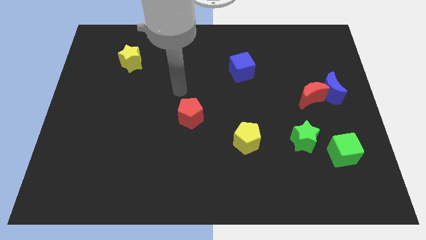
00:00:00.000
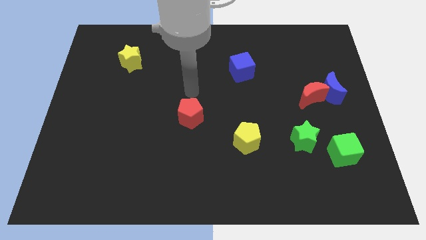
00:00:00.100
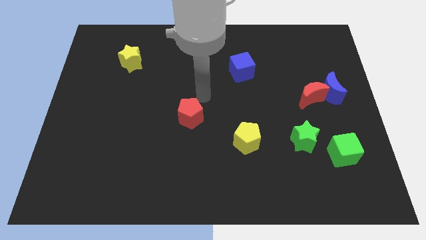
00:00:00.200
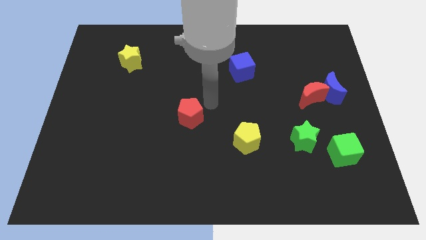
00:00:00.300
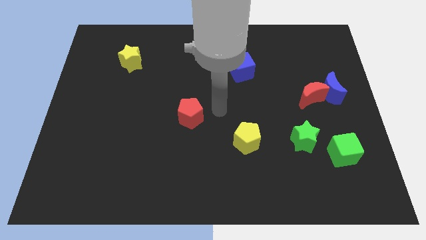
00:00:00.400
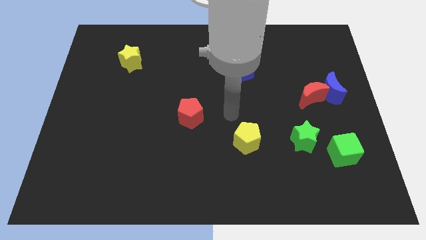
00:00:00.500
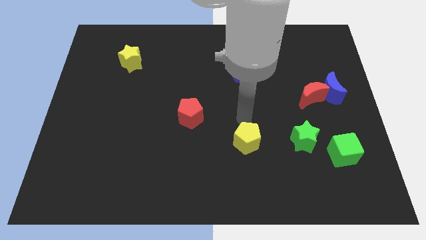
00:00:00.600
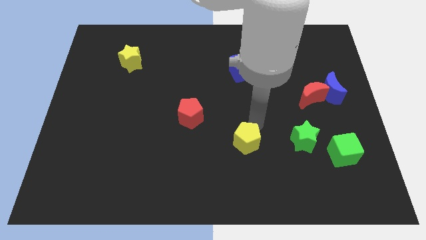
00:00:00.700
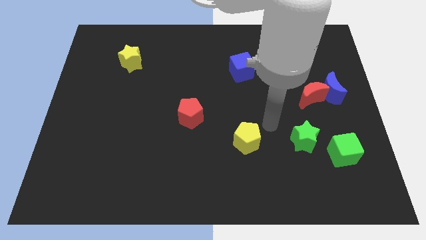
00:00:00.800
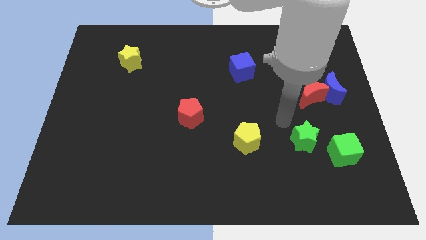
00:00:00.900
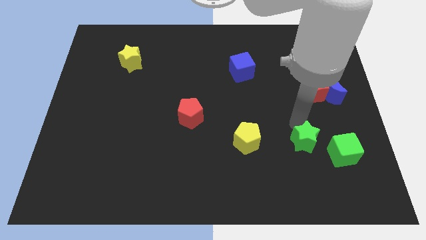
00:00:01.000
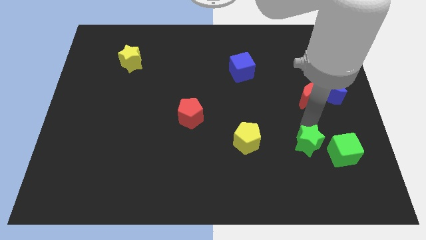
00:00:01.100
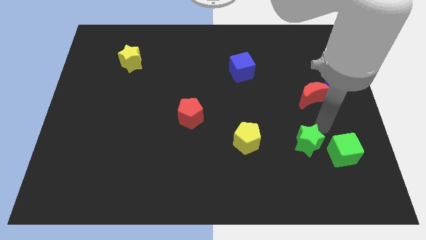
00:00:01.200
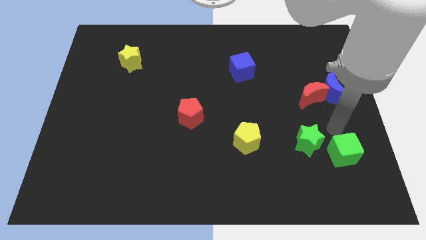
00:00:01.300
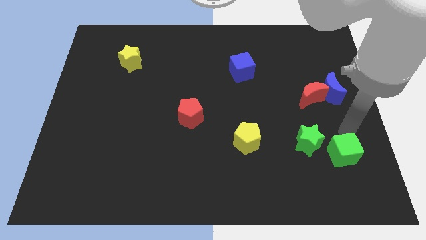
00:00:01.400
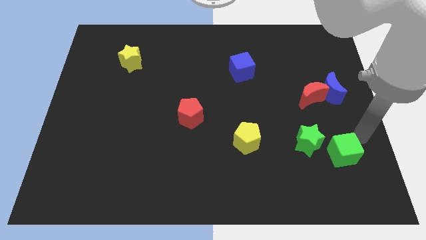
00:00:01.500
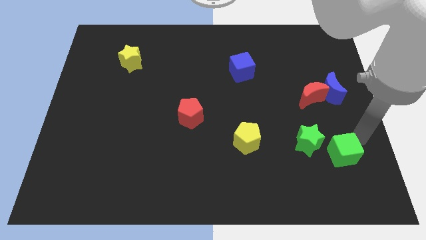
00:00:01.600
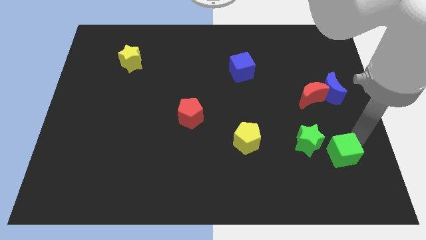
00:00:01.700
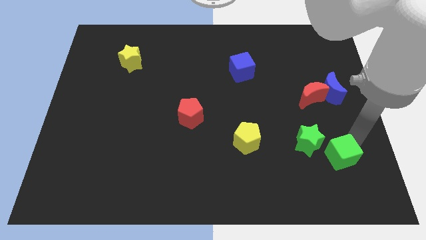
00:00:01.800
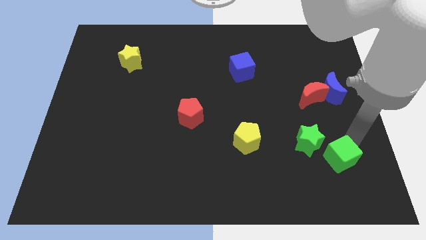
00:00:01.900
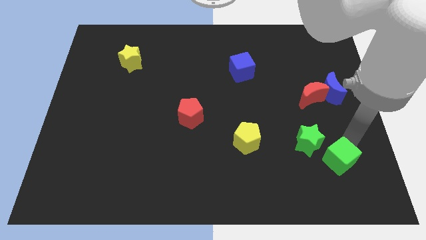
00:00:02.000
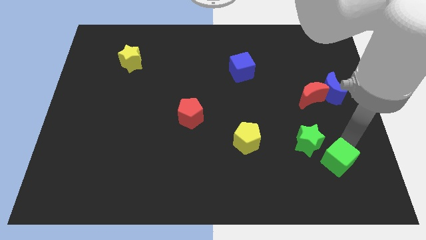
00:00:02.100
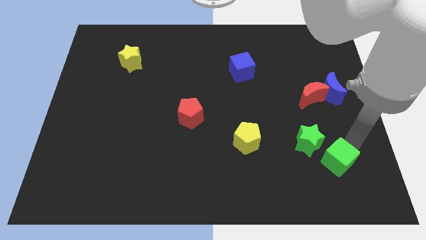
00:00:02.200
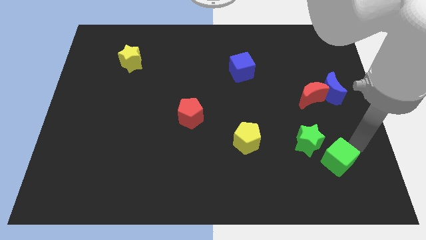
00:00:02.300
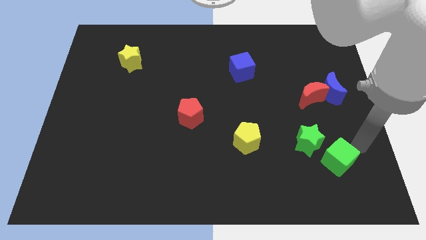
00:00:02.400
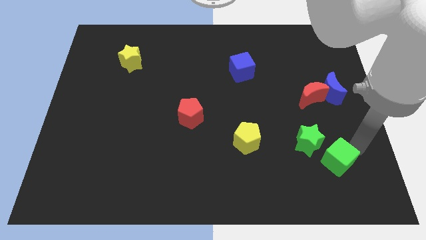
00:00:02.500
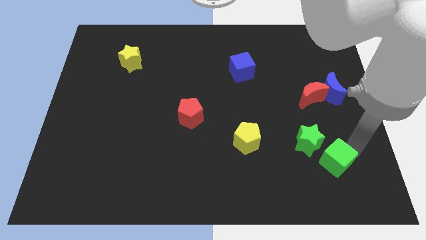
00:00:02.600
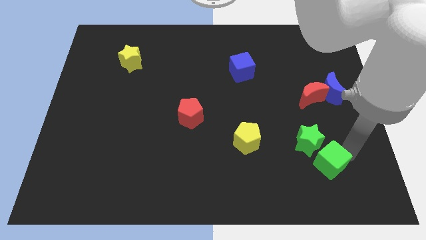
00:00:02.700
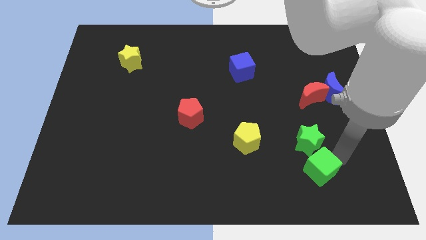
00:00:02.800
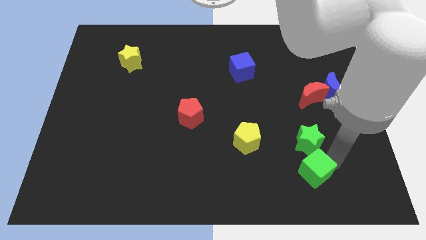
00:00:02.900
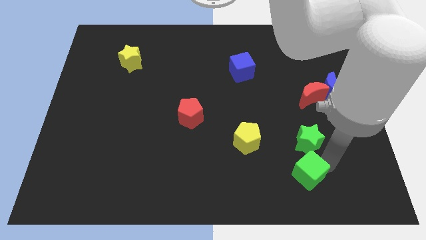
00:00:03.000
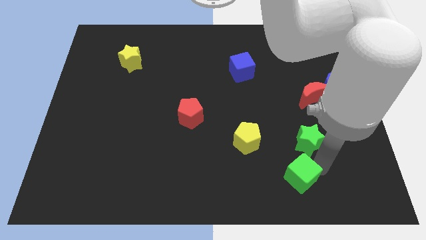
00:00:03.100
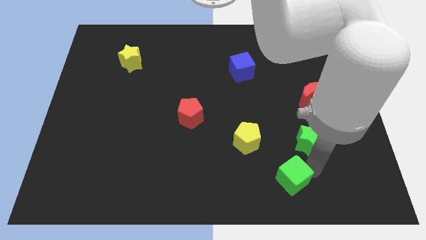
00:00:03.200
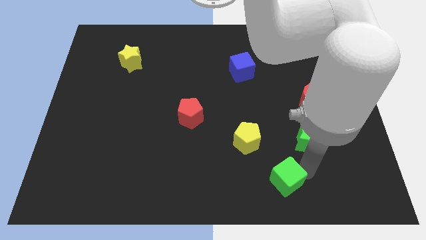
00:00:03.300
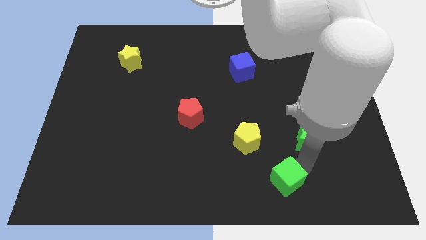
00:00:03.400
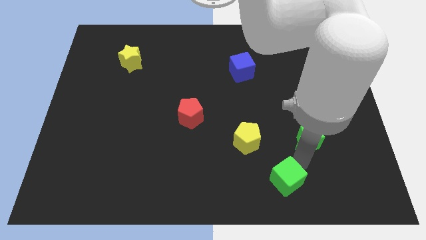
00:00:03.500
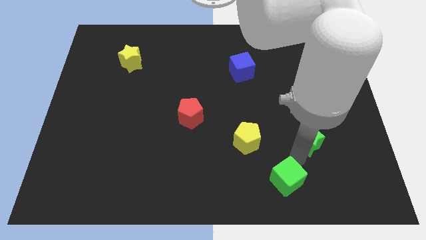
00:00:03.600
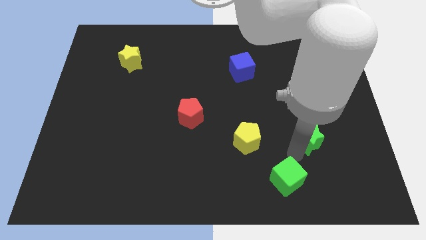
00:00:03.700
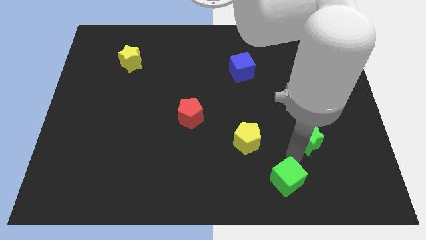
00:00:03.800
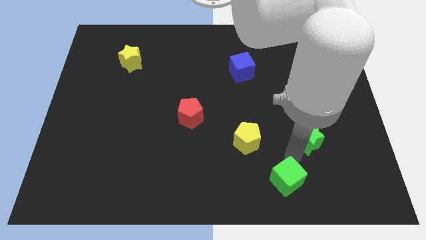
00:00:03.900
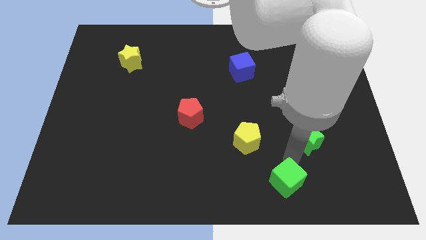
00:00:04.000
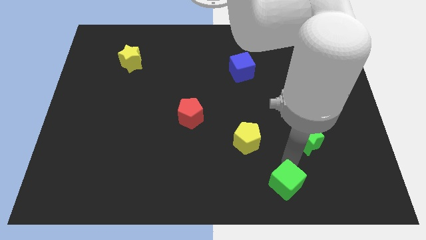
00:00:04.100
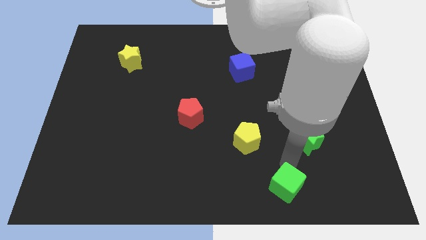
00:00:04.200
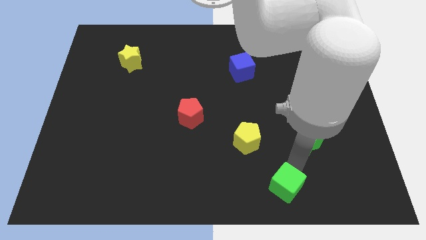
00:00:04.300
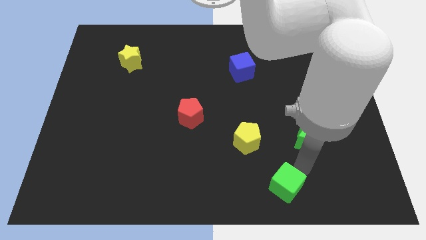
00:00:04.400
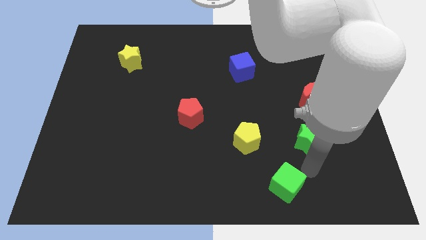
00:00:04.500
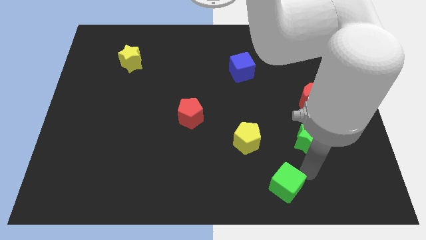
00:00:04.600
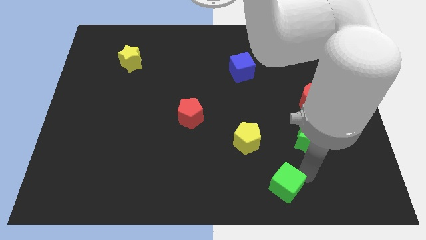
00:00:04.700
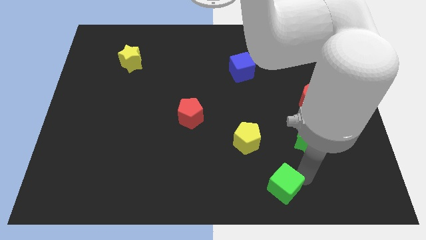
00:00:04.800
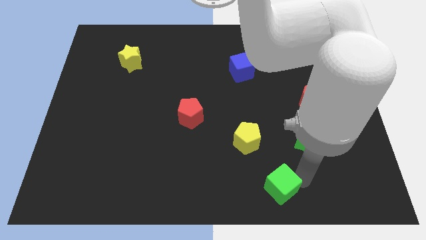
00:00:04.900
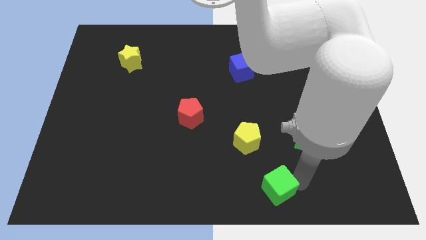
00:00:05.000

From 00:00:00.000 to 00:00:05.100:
move the green cube to the bottom side

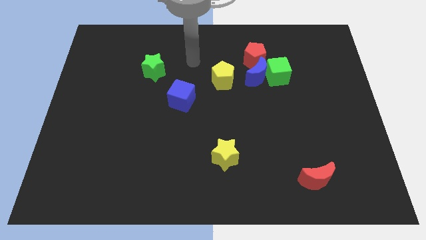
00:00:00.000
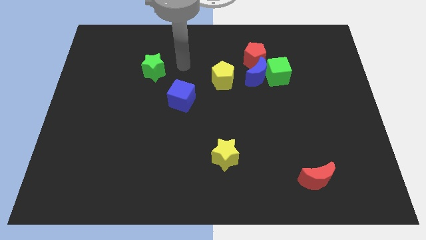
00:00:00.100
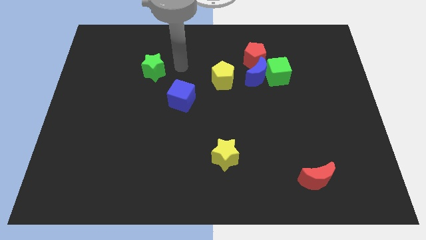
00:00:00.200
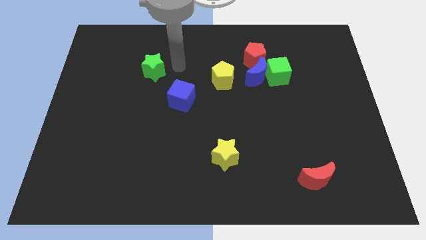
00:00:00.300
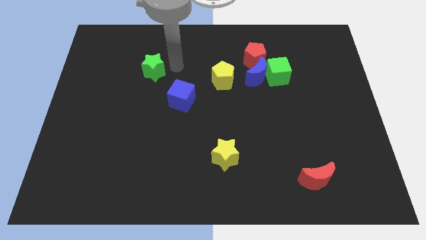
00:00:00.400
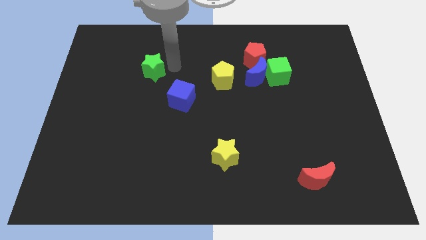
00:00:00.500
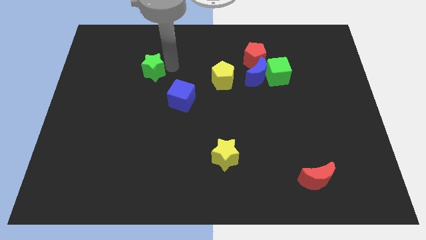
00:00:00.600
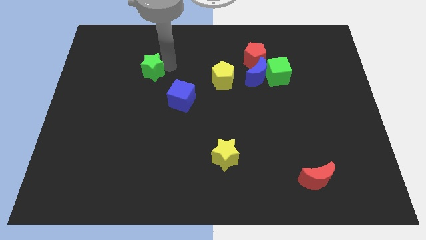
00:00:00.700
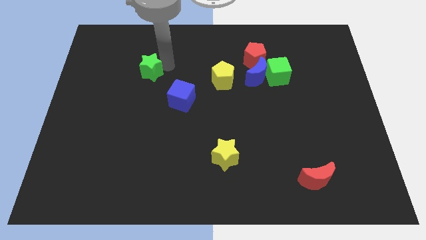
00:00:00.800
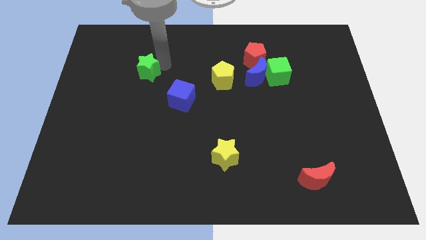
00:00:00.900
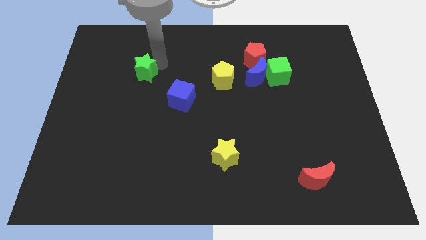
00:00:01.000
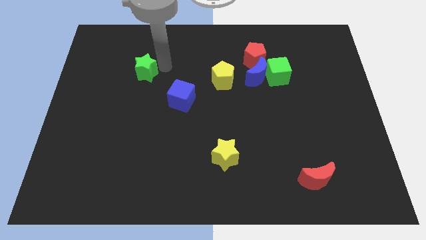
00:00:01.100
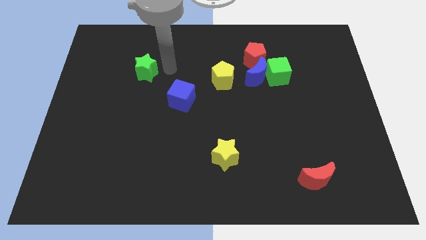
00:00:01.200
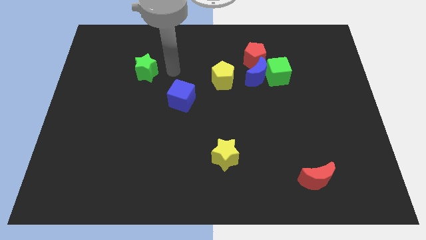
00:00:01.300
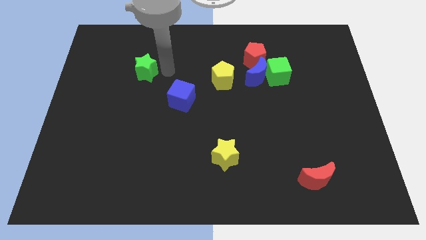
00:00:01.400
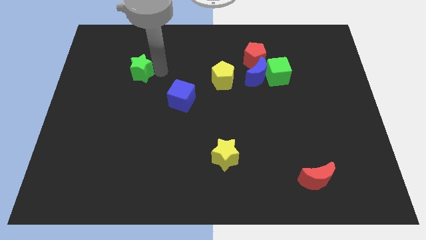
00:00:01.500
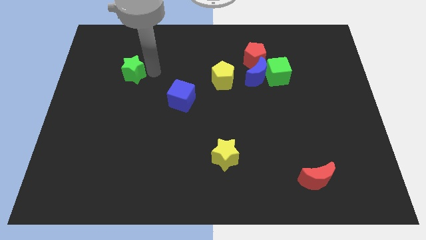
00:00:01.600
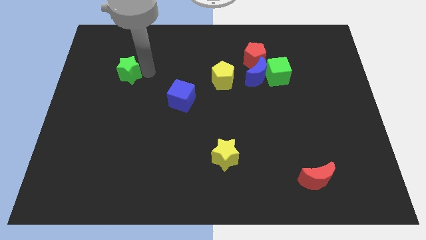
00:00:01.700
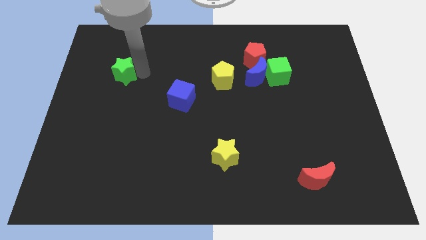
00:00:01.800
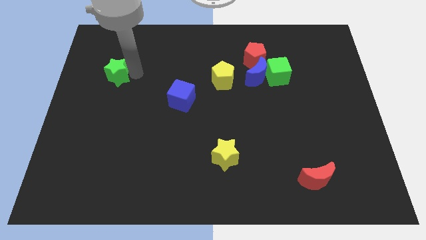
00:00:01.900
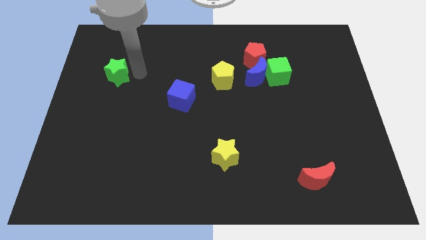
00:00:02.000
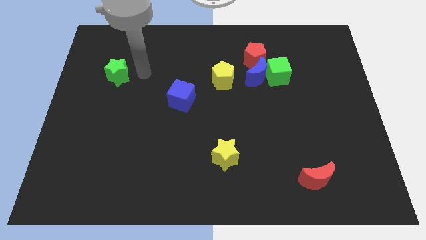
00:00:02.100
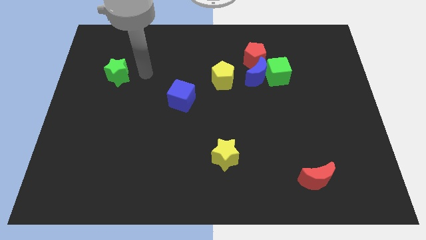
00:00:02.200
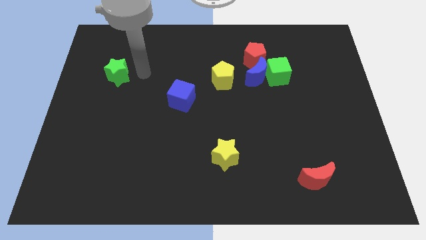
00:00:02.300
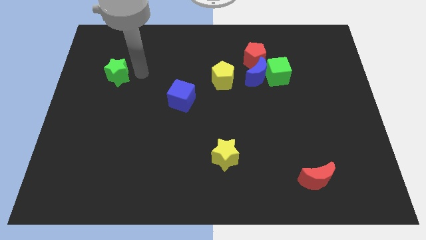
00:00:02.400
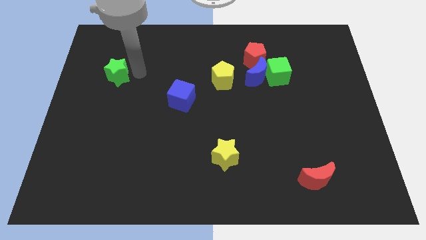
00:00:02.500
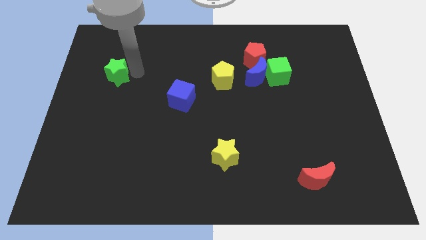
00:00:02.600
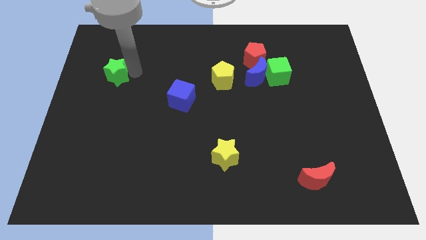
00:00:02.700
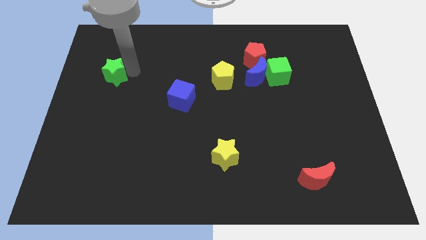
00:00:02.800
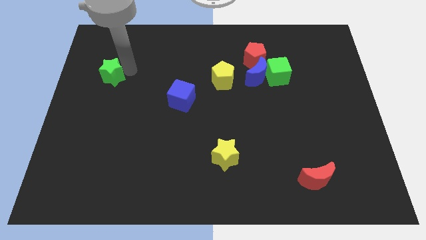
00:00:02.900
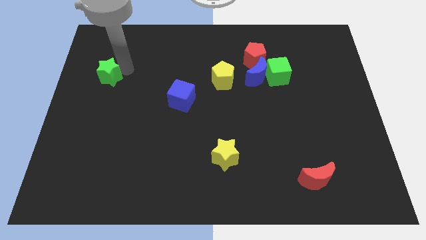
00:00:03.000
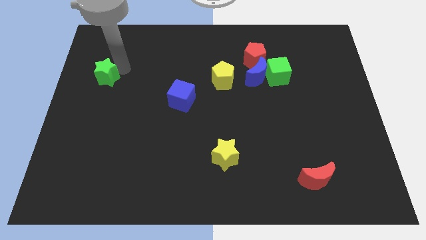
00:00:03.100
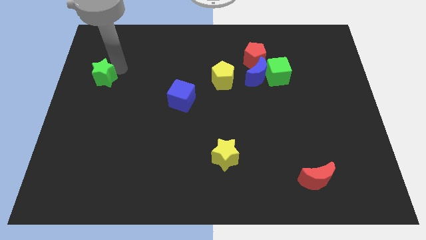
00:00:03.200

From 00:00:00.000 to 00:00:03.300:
push the green star to the left side
